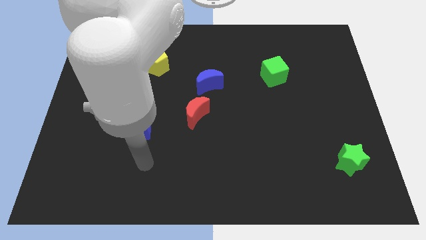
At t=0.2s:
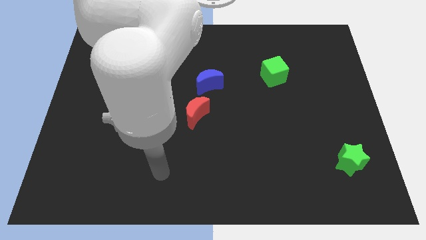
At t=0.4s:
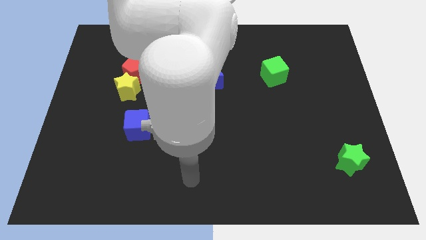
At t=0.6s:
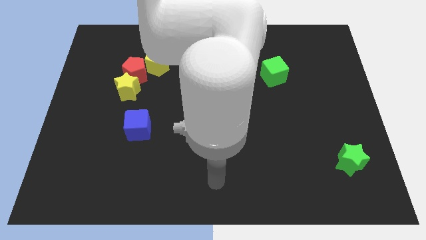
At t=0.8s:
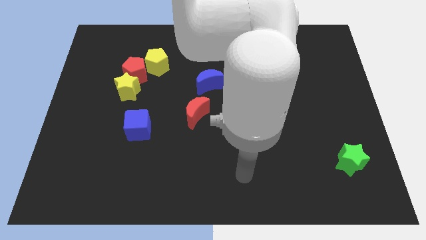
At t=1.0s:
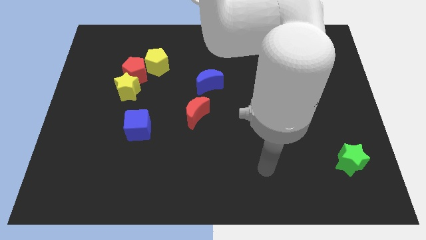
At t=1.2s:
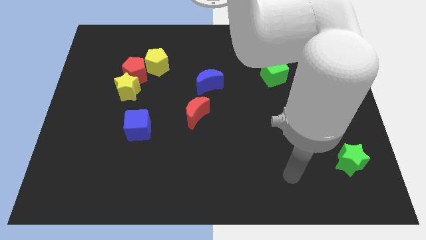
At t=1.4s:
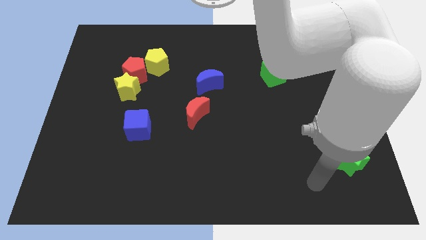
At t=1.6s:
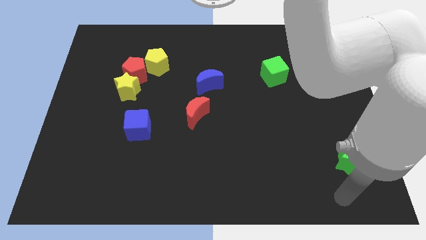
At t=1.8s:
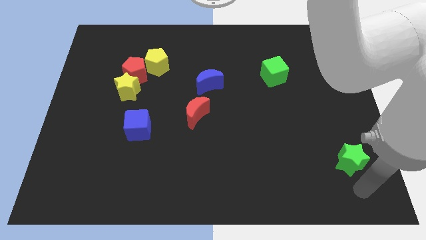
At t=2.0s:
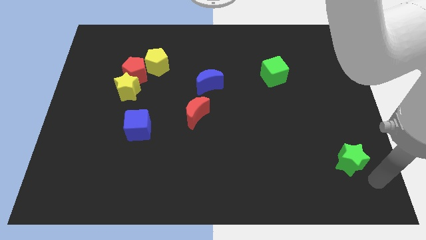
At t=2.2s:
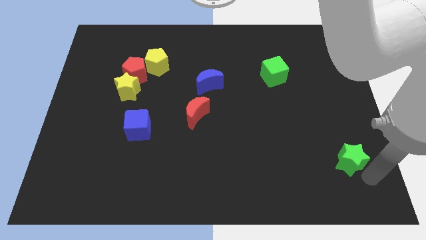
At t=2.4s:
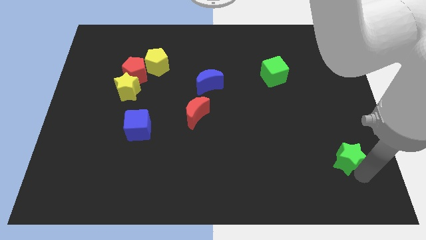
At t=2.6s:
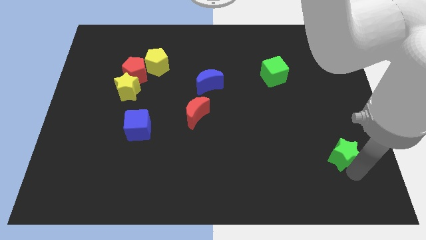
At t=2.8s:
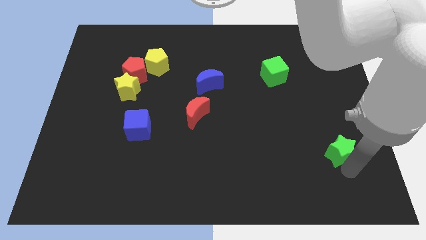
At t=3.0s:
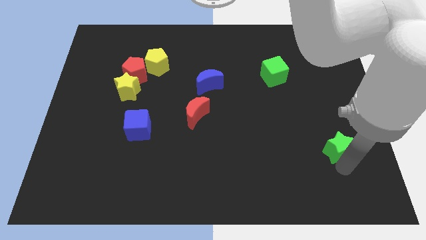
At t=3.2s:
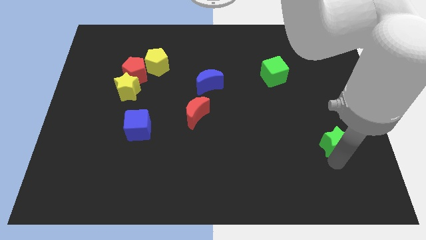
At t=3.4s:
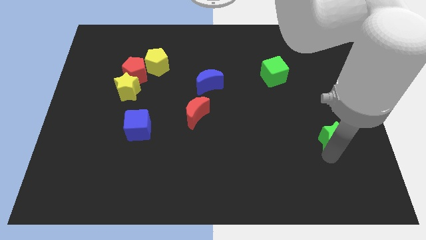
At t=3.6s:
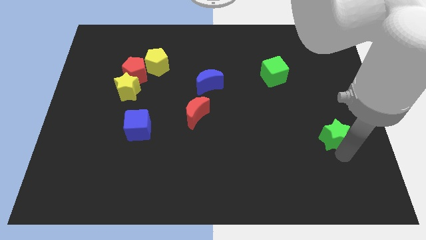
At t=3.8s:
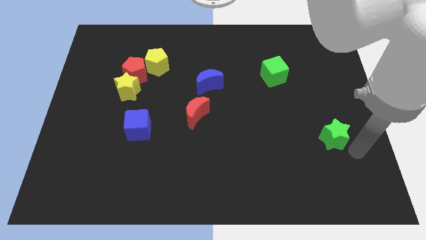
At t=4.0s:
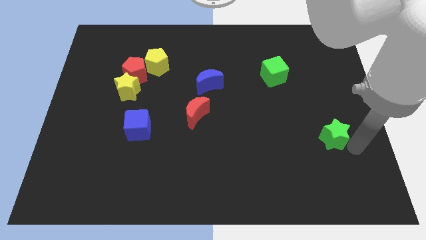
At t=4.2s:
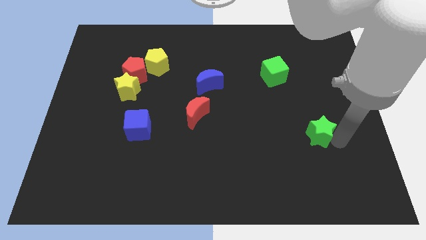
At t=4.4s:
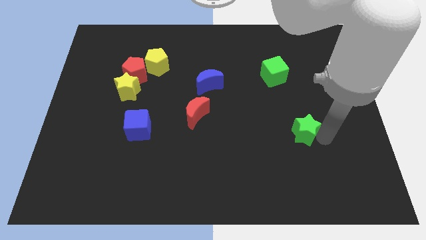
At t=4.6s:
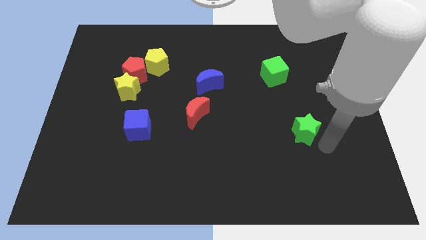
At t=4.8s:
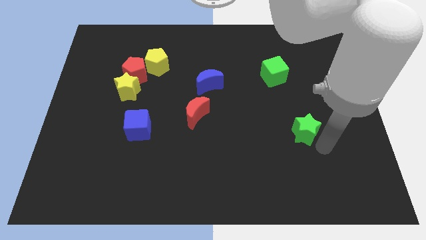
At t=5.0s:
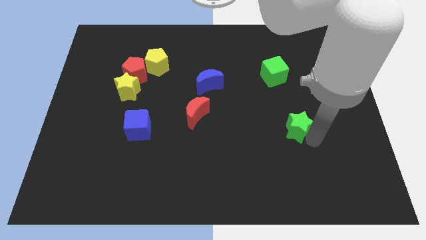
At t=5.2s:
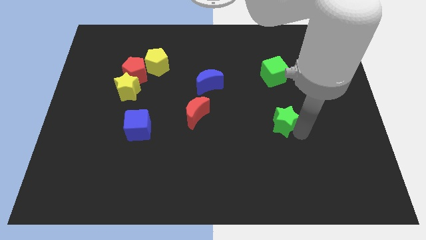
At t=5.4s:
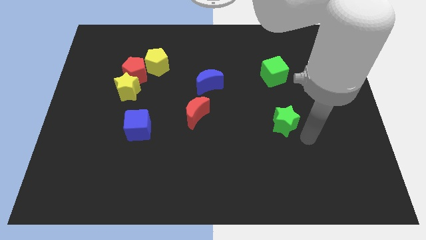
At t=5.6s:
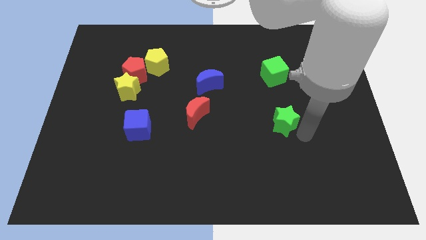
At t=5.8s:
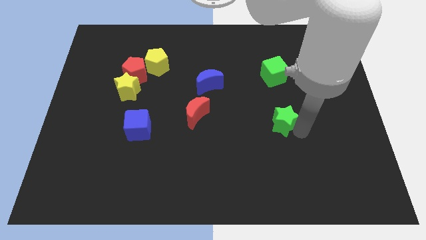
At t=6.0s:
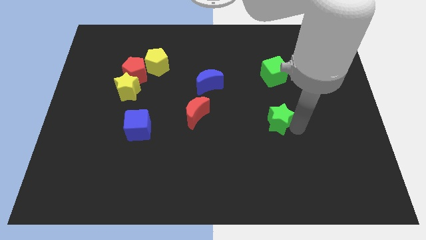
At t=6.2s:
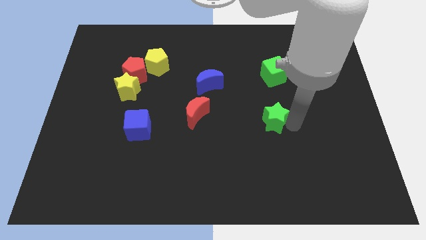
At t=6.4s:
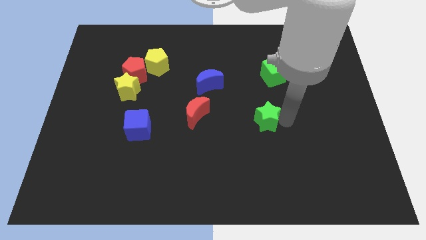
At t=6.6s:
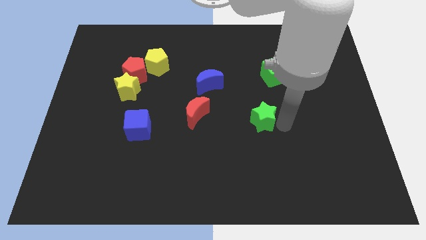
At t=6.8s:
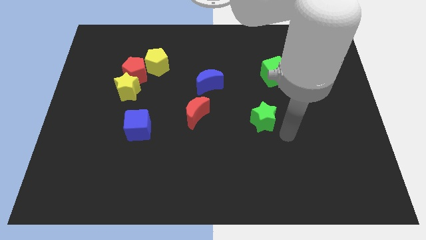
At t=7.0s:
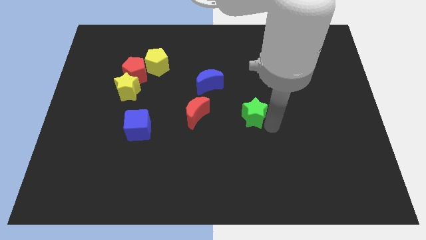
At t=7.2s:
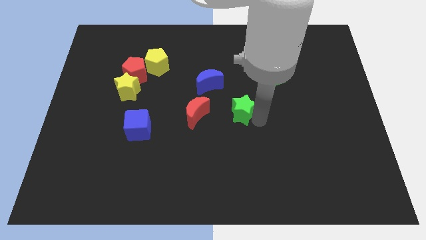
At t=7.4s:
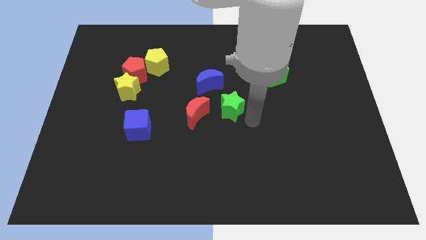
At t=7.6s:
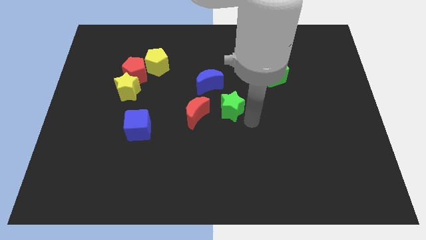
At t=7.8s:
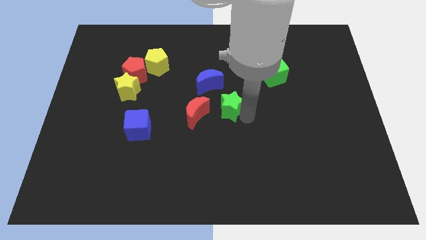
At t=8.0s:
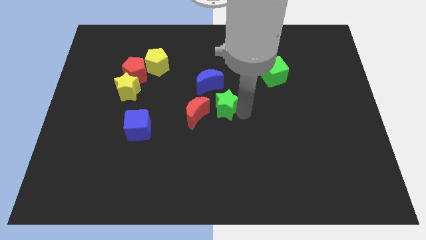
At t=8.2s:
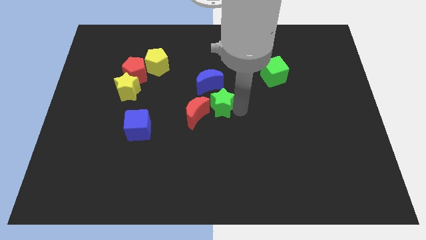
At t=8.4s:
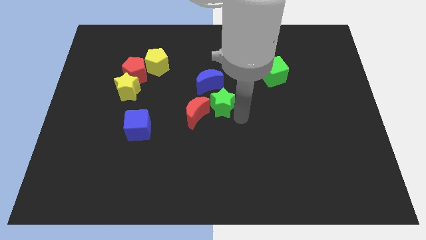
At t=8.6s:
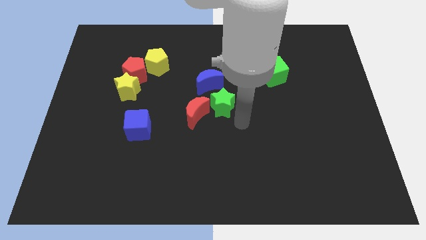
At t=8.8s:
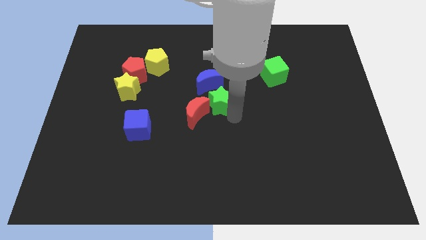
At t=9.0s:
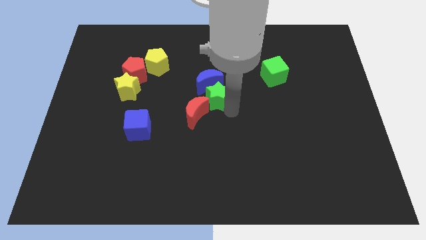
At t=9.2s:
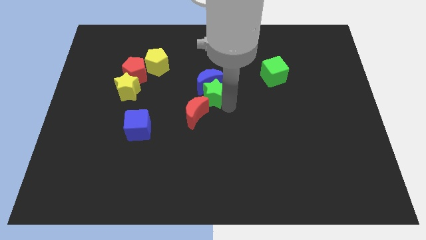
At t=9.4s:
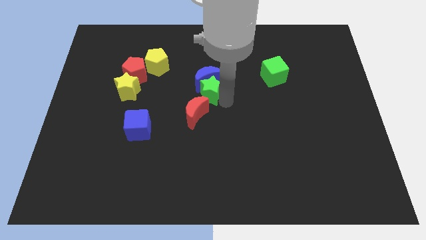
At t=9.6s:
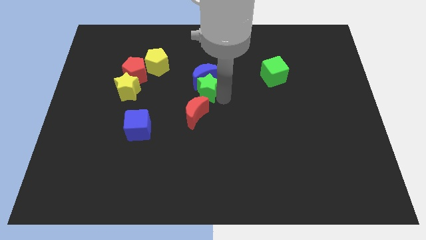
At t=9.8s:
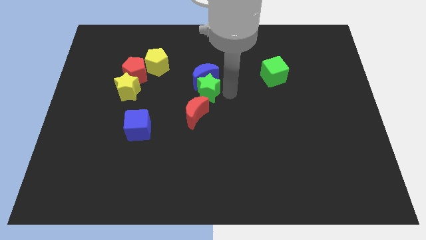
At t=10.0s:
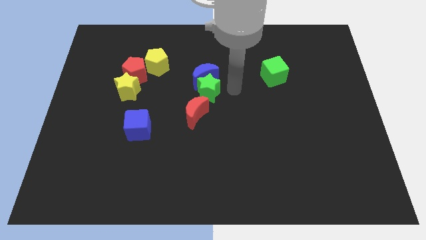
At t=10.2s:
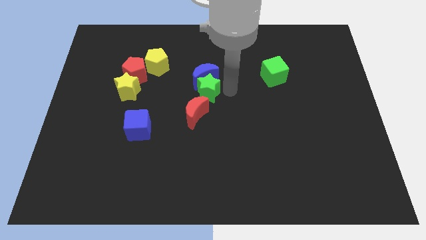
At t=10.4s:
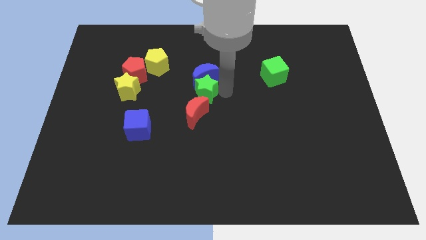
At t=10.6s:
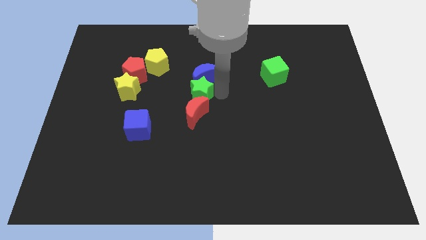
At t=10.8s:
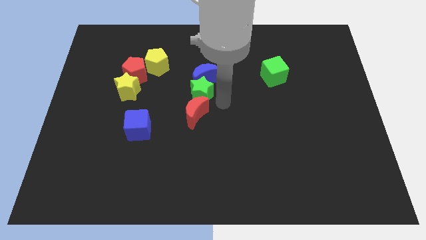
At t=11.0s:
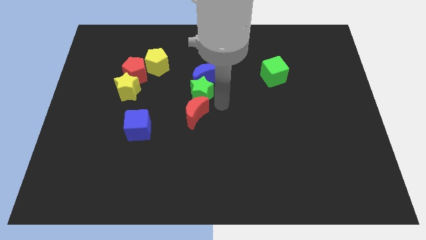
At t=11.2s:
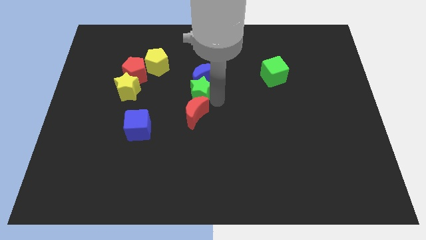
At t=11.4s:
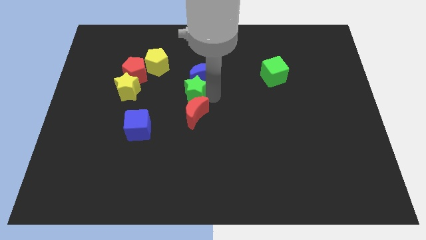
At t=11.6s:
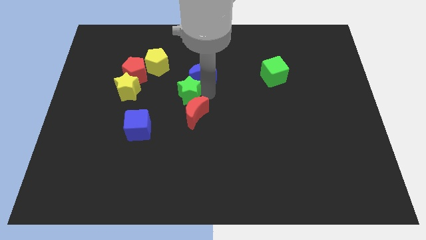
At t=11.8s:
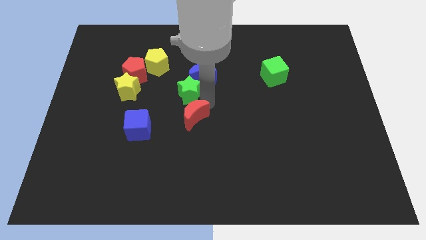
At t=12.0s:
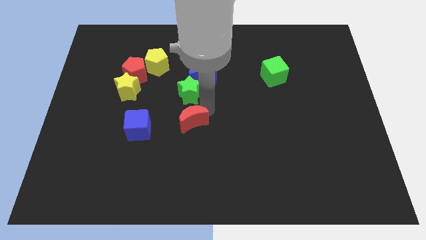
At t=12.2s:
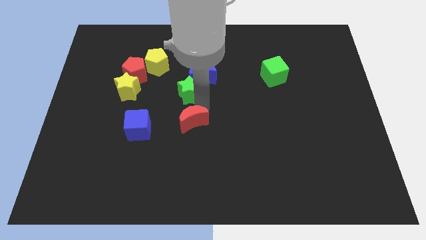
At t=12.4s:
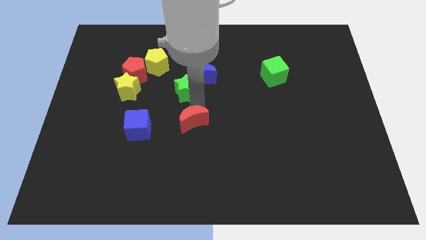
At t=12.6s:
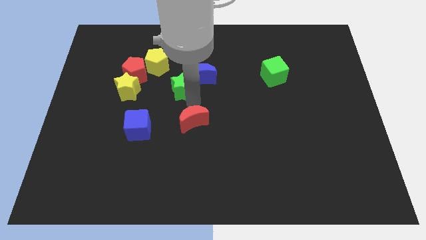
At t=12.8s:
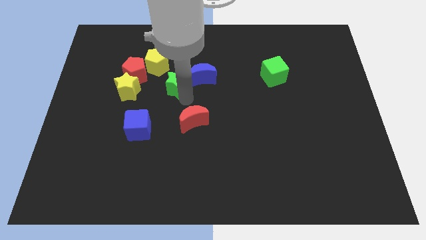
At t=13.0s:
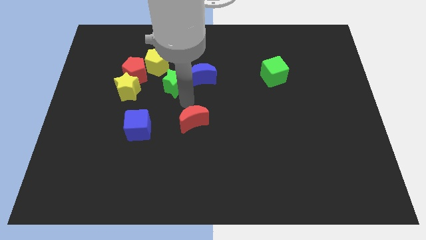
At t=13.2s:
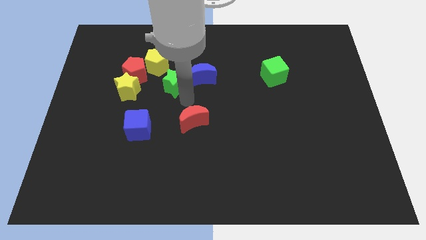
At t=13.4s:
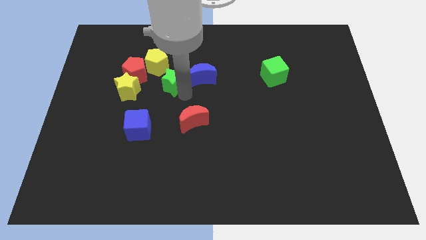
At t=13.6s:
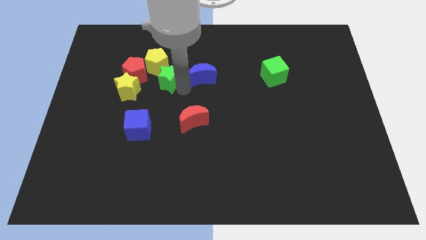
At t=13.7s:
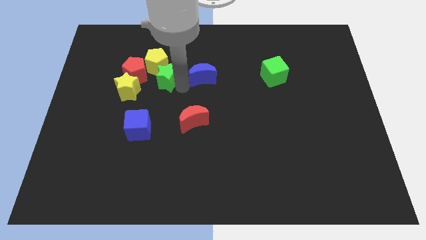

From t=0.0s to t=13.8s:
move the green star close to the yellow pentagon
